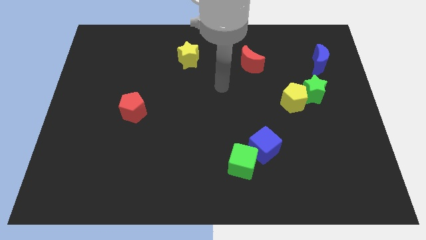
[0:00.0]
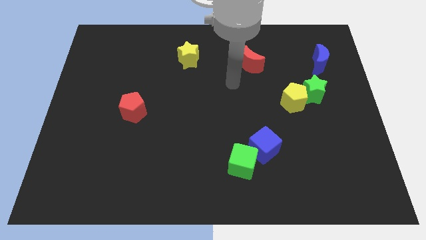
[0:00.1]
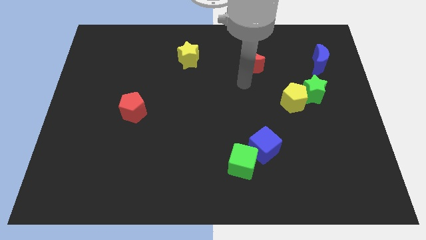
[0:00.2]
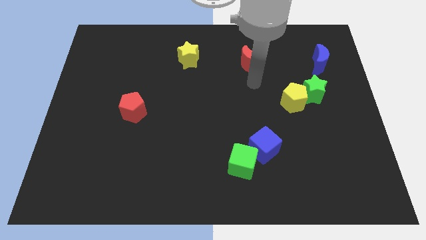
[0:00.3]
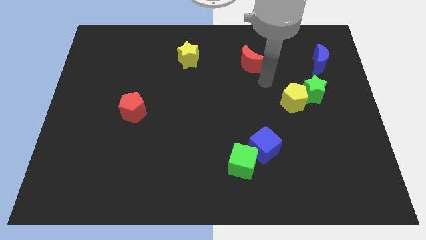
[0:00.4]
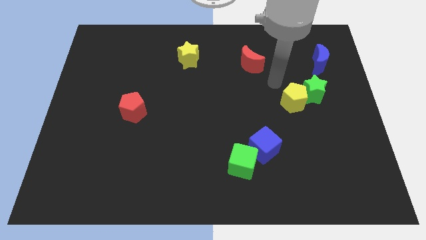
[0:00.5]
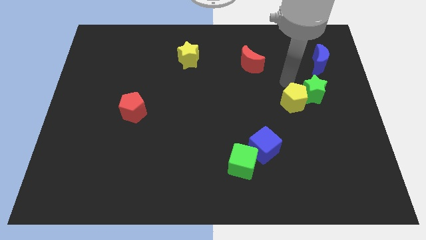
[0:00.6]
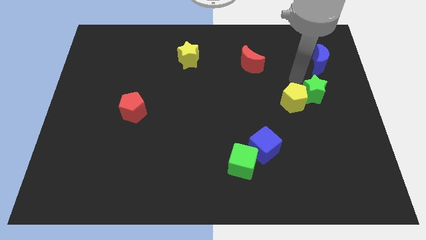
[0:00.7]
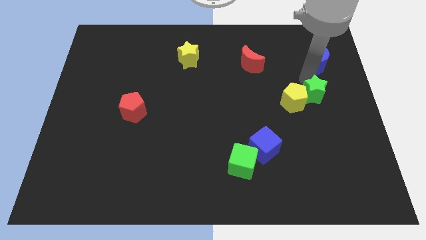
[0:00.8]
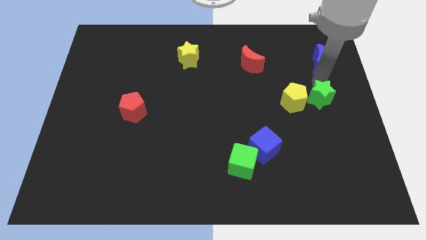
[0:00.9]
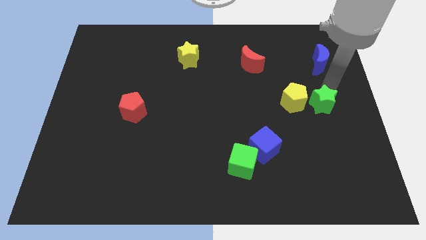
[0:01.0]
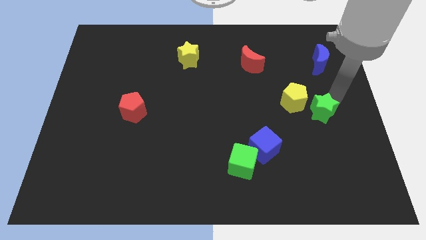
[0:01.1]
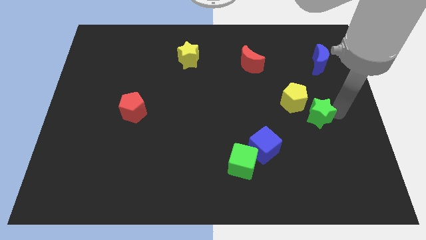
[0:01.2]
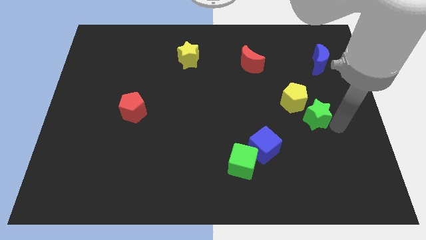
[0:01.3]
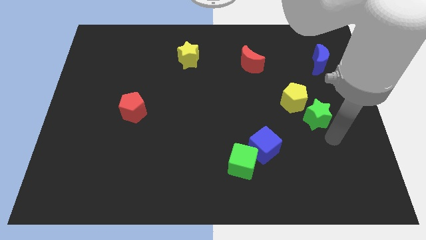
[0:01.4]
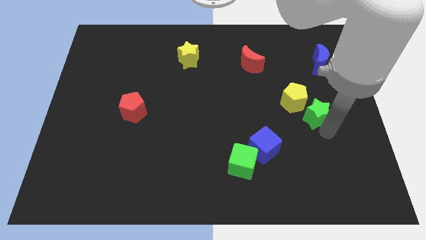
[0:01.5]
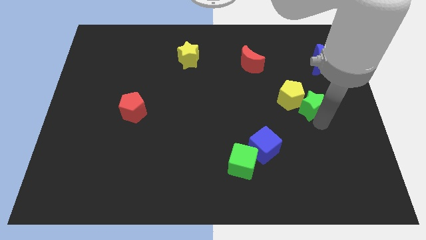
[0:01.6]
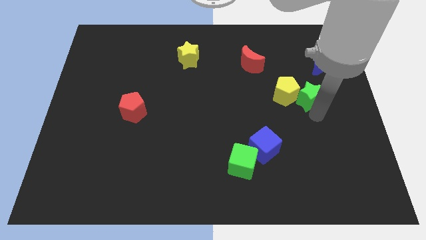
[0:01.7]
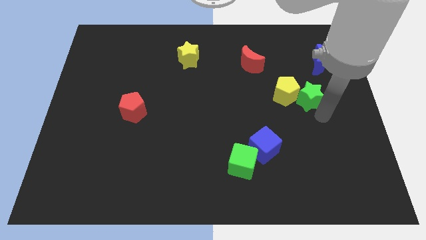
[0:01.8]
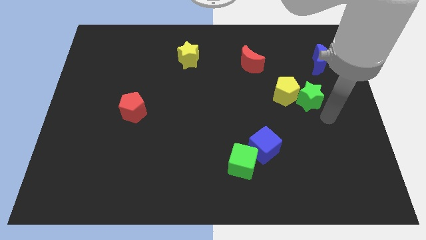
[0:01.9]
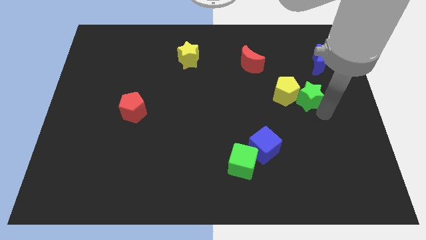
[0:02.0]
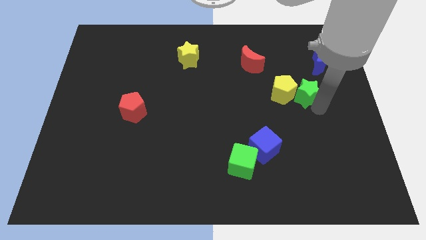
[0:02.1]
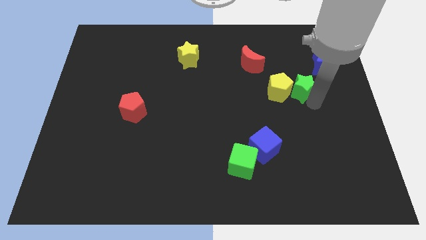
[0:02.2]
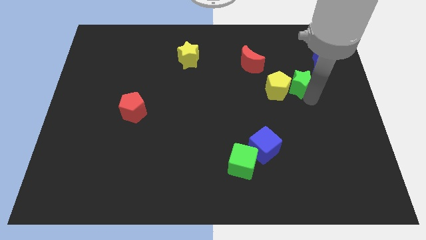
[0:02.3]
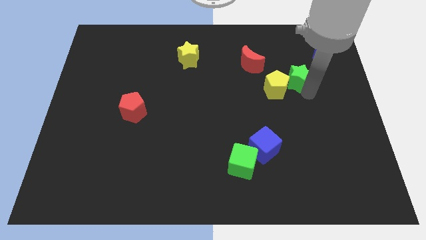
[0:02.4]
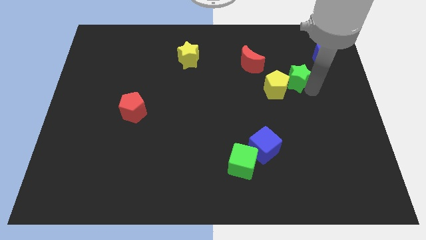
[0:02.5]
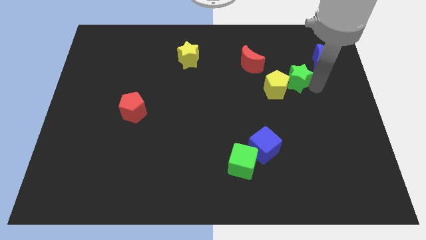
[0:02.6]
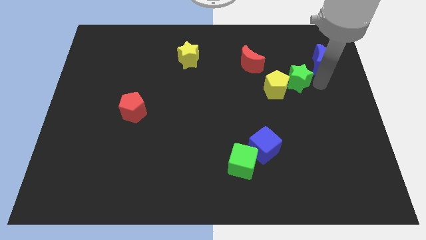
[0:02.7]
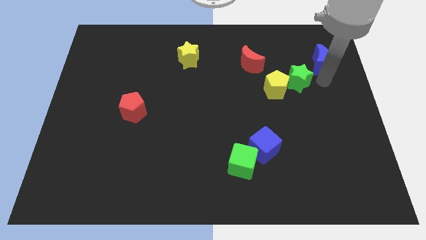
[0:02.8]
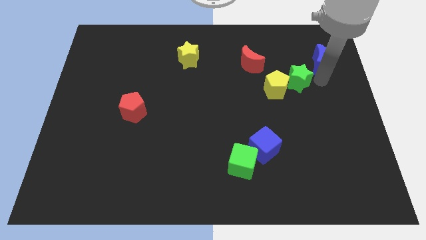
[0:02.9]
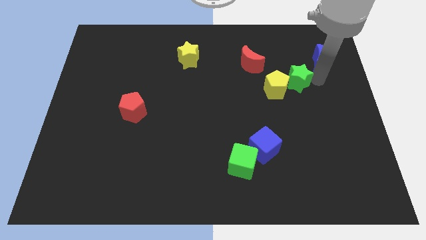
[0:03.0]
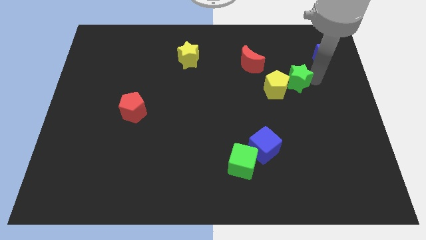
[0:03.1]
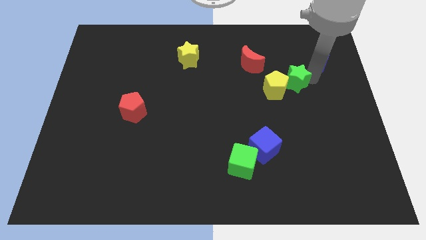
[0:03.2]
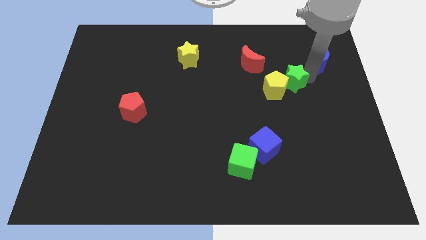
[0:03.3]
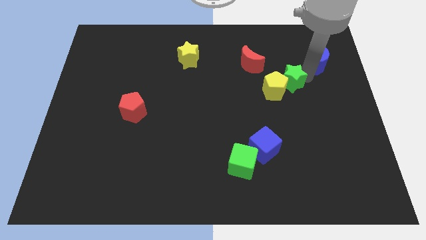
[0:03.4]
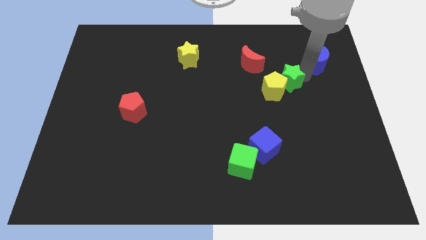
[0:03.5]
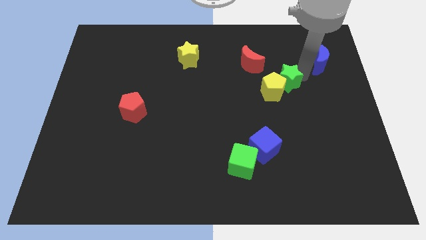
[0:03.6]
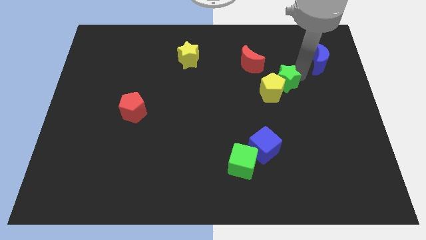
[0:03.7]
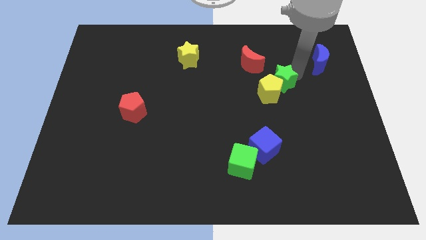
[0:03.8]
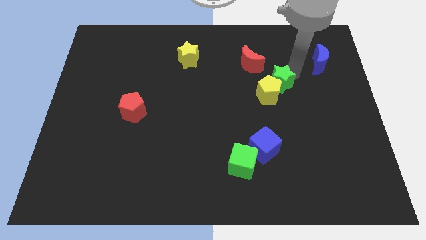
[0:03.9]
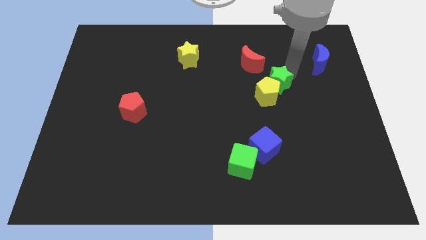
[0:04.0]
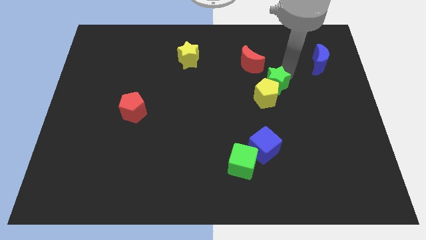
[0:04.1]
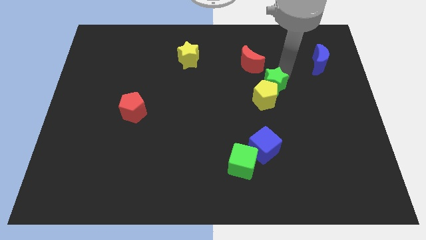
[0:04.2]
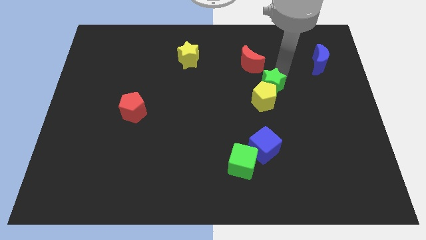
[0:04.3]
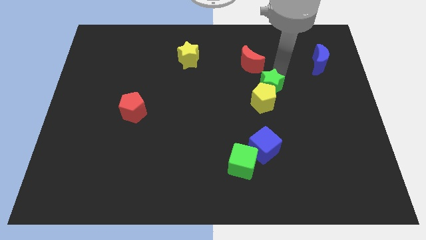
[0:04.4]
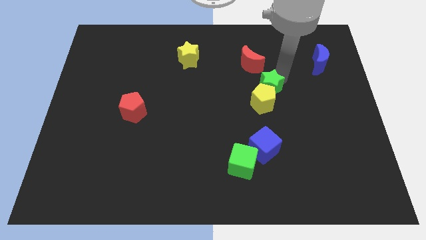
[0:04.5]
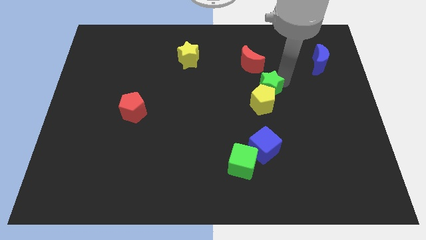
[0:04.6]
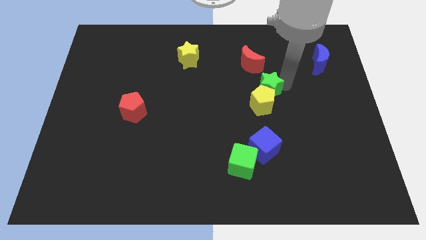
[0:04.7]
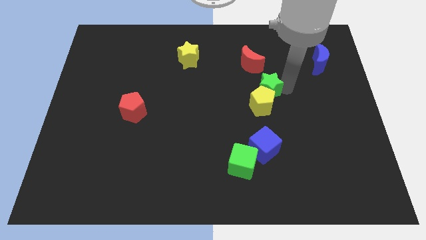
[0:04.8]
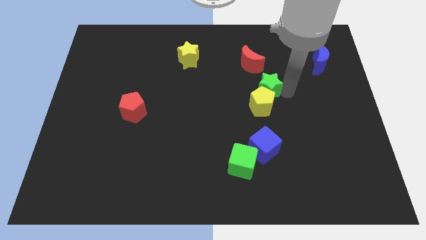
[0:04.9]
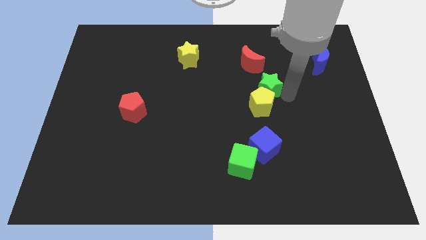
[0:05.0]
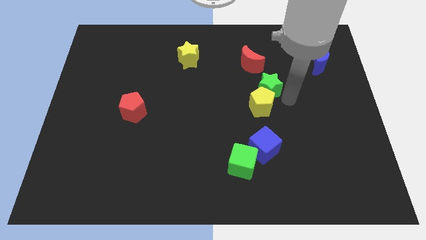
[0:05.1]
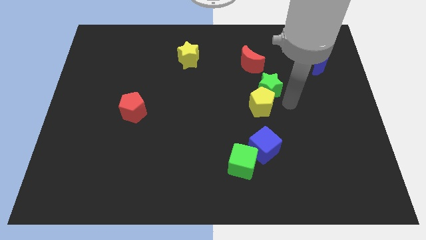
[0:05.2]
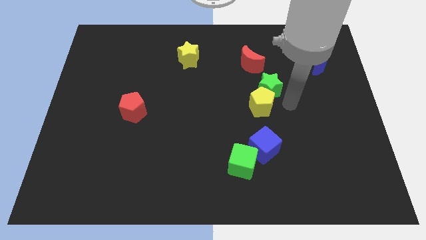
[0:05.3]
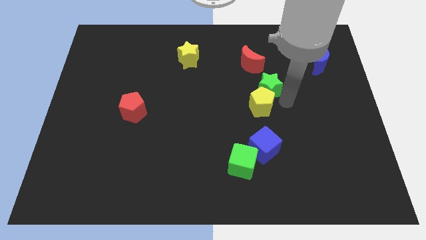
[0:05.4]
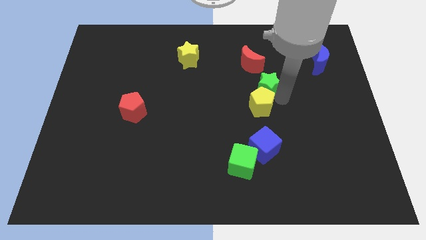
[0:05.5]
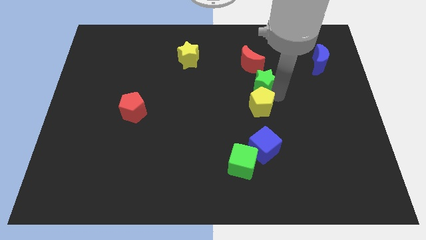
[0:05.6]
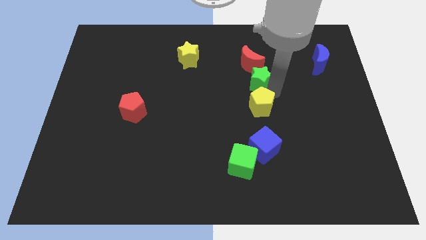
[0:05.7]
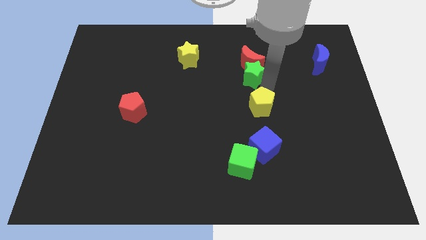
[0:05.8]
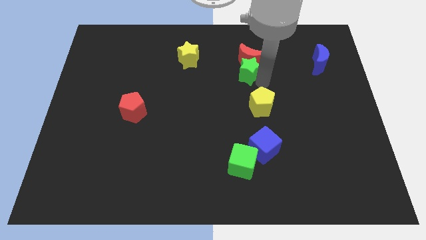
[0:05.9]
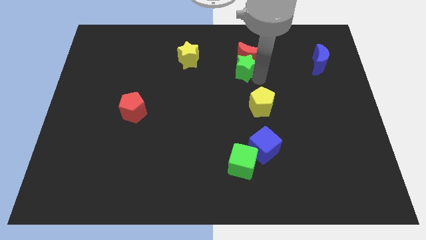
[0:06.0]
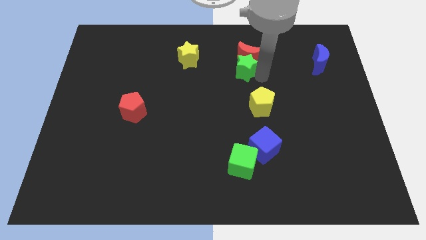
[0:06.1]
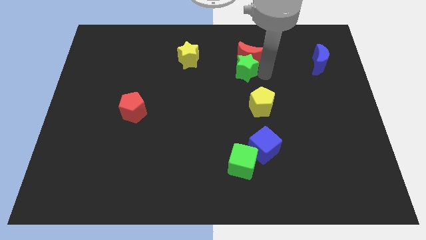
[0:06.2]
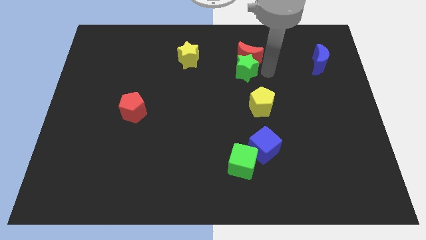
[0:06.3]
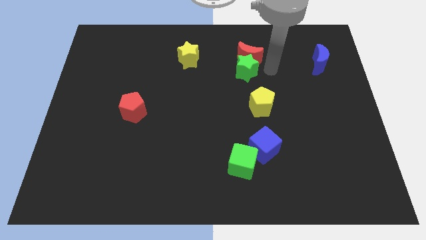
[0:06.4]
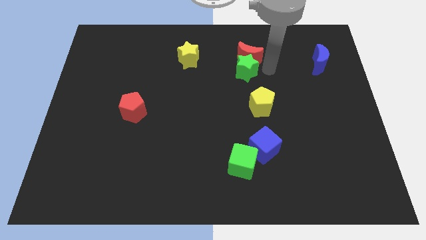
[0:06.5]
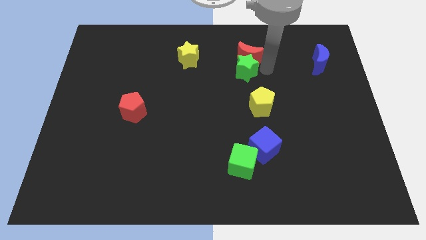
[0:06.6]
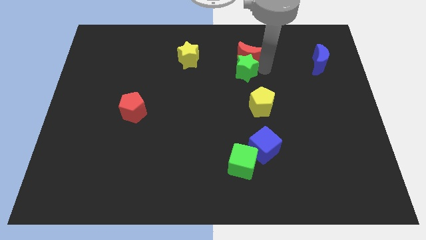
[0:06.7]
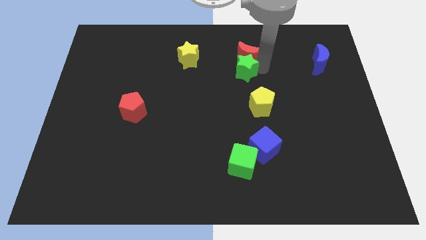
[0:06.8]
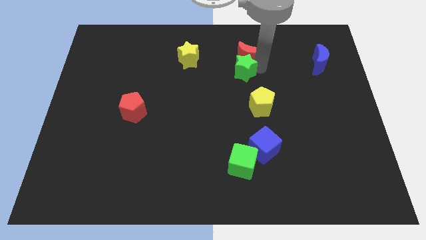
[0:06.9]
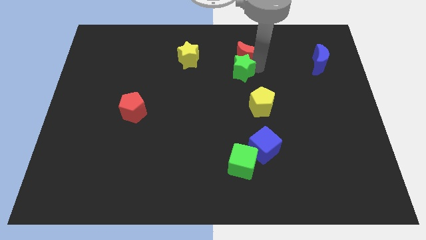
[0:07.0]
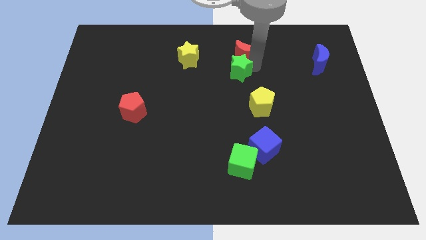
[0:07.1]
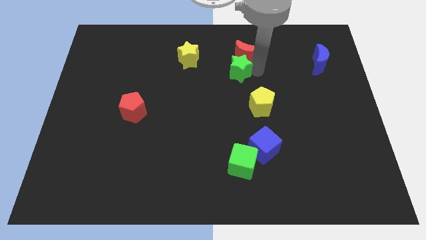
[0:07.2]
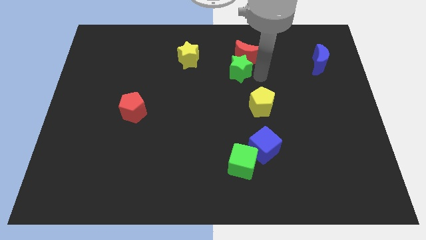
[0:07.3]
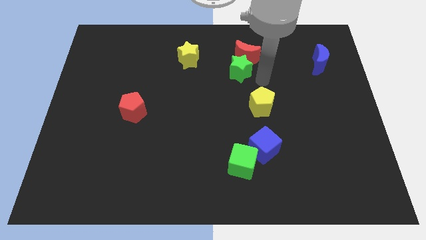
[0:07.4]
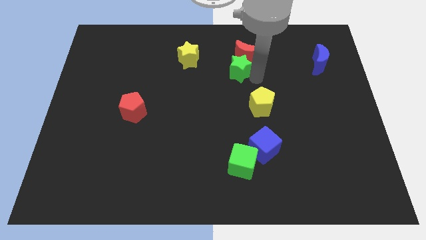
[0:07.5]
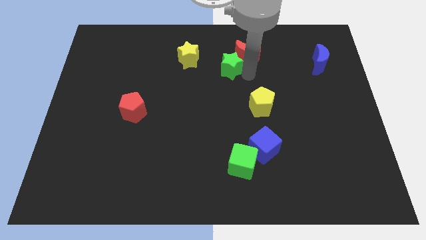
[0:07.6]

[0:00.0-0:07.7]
move the green star just left of the red moon
